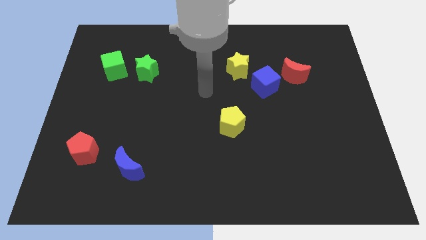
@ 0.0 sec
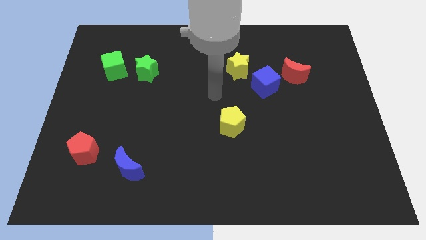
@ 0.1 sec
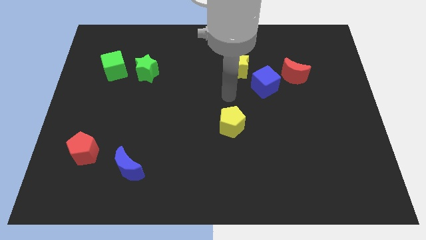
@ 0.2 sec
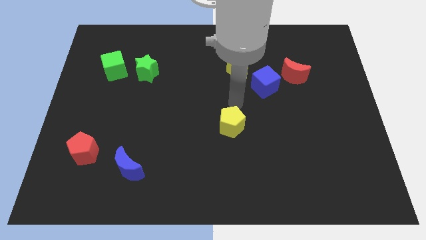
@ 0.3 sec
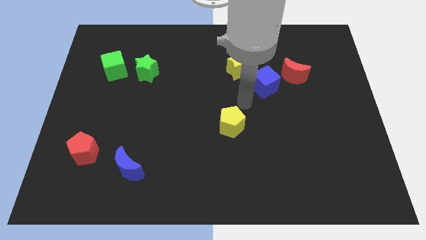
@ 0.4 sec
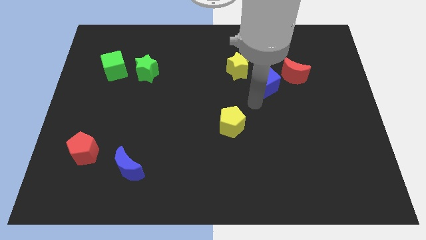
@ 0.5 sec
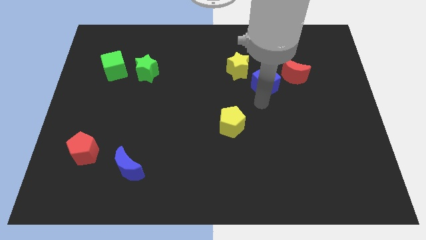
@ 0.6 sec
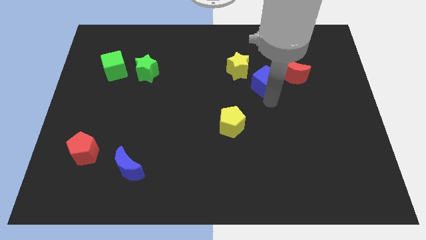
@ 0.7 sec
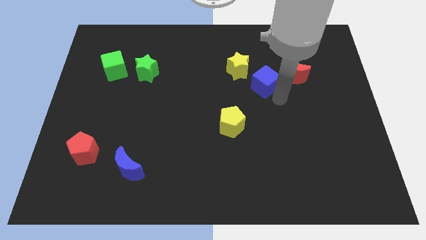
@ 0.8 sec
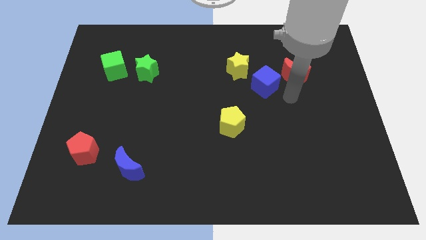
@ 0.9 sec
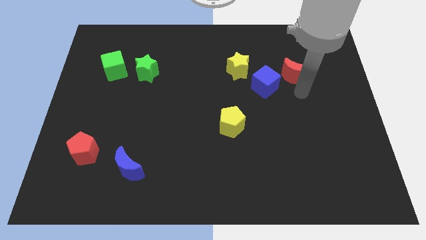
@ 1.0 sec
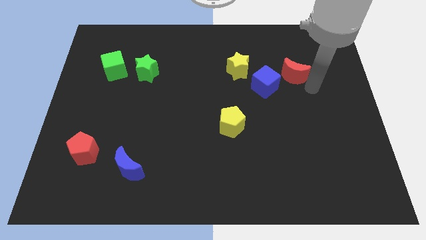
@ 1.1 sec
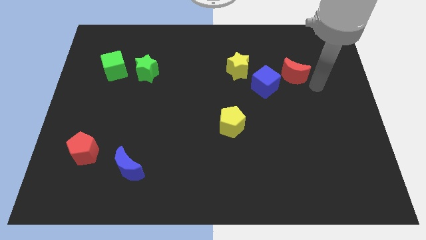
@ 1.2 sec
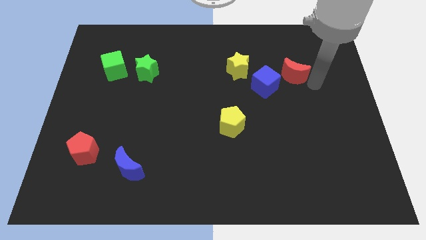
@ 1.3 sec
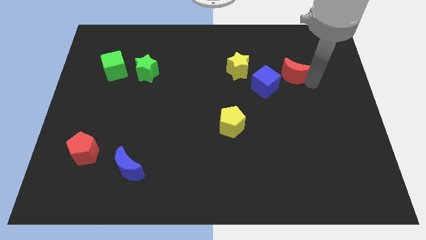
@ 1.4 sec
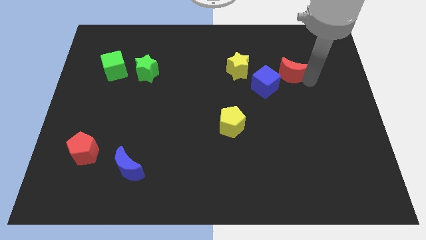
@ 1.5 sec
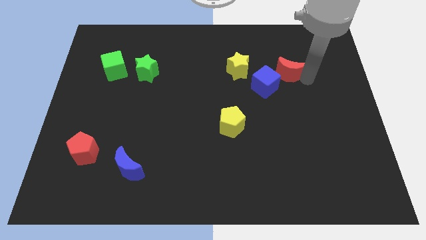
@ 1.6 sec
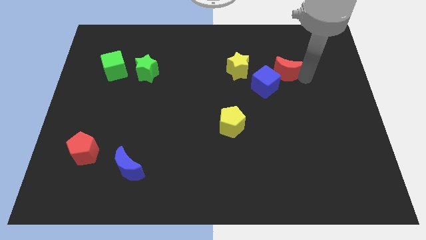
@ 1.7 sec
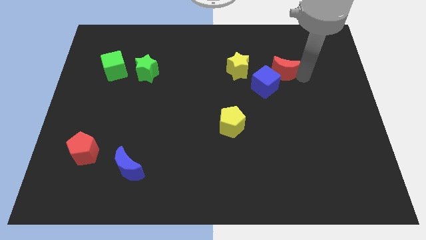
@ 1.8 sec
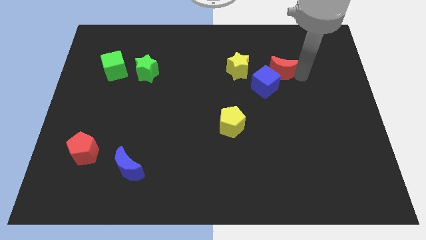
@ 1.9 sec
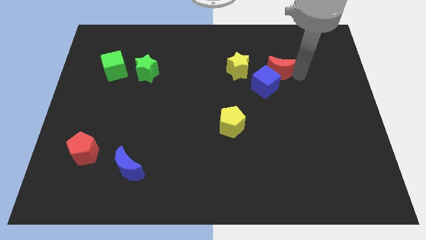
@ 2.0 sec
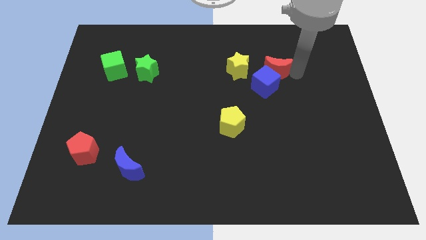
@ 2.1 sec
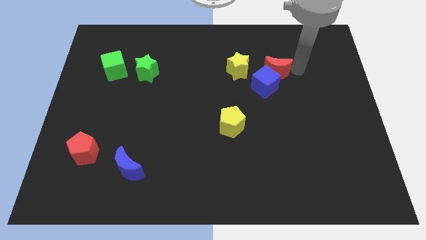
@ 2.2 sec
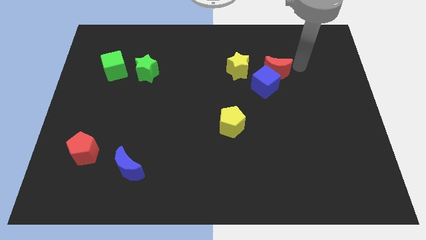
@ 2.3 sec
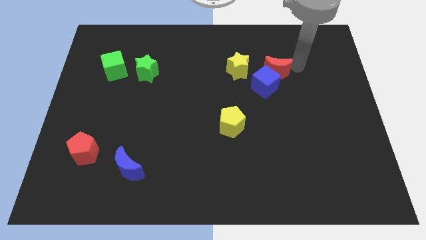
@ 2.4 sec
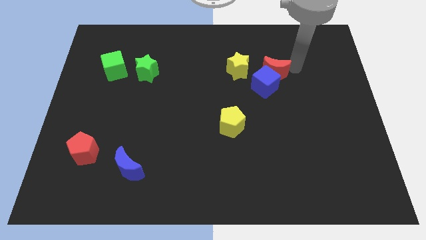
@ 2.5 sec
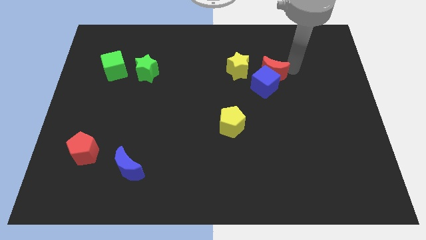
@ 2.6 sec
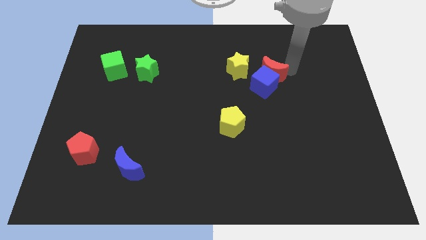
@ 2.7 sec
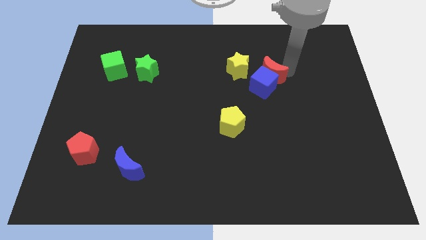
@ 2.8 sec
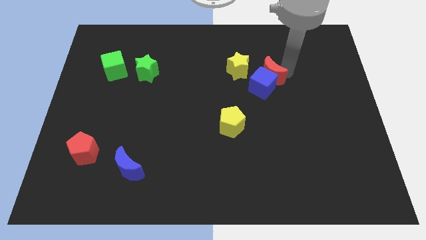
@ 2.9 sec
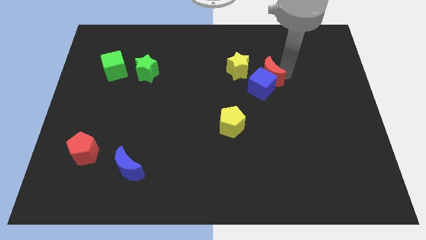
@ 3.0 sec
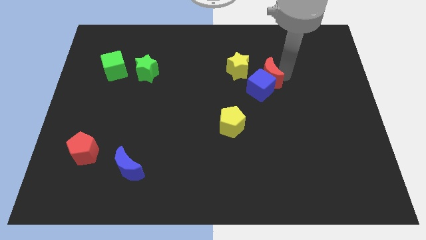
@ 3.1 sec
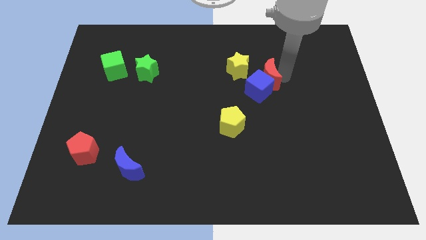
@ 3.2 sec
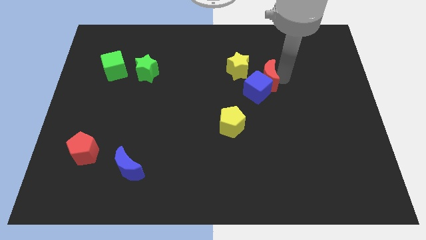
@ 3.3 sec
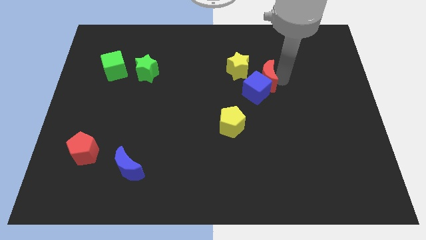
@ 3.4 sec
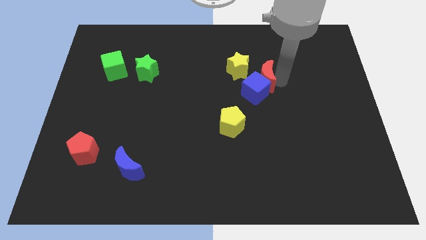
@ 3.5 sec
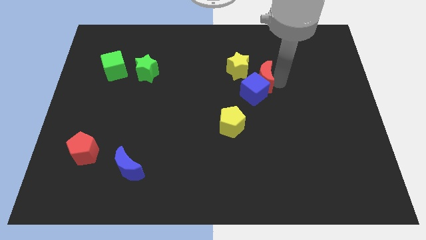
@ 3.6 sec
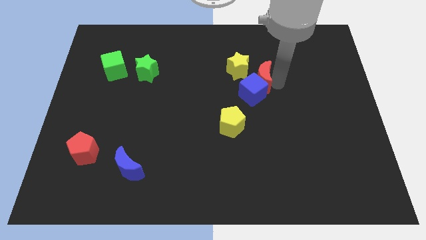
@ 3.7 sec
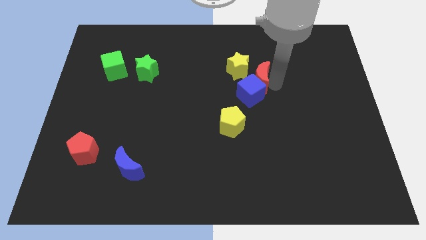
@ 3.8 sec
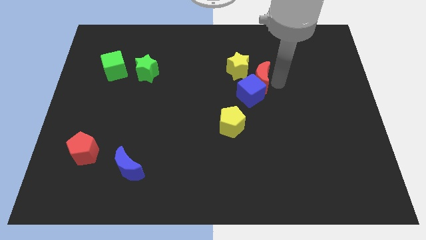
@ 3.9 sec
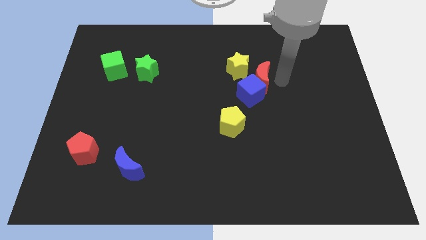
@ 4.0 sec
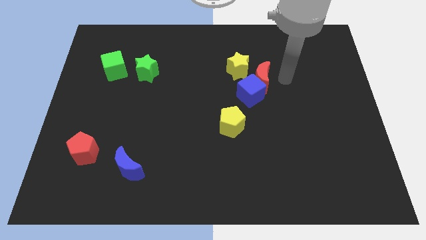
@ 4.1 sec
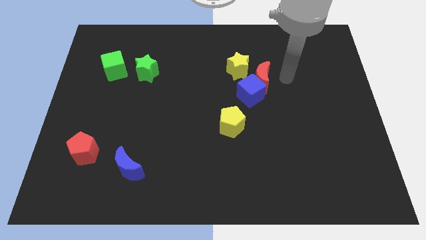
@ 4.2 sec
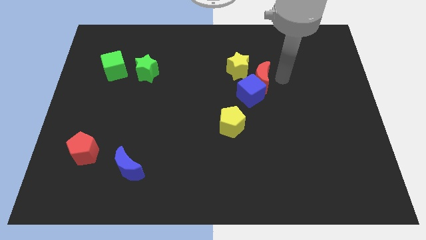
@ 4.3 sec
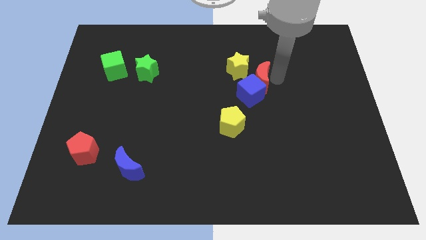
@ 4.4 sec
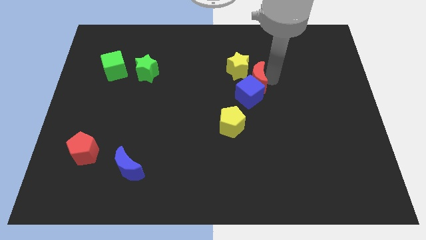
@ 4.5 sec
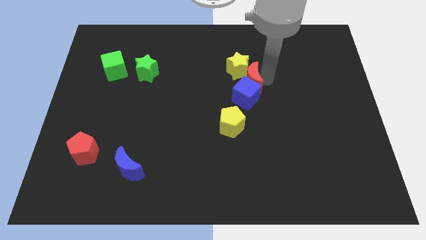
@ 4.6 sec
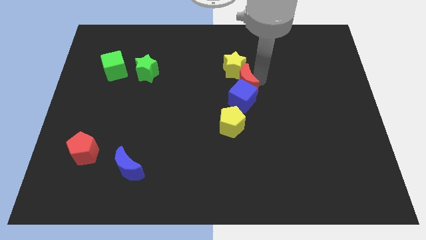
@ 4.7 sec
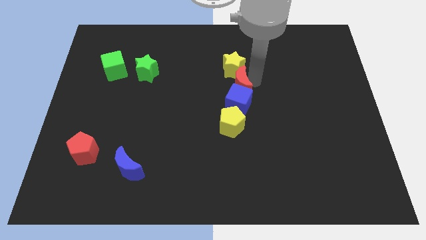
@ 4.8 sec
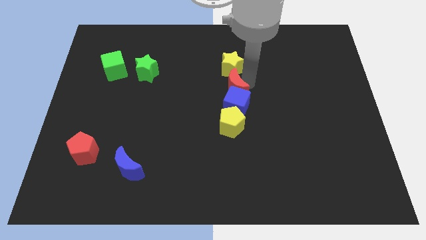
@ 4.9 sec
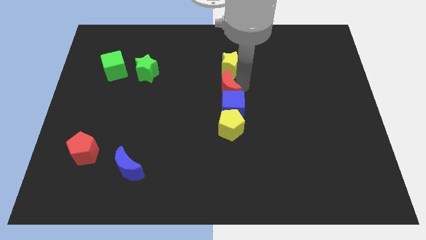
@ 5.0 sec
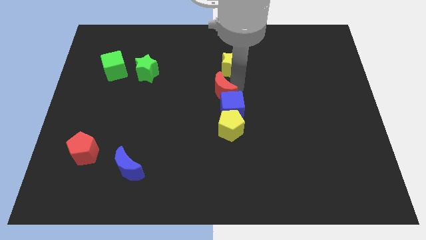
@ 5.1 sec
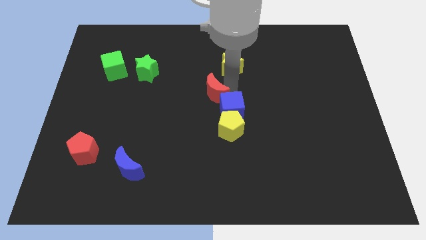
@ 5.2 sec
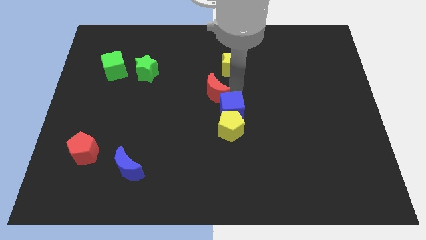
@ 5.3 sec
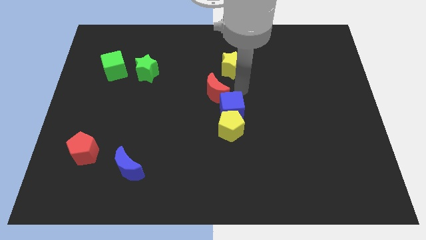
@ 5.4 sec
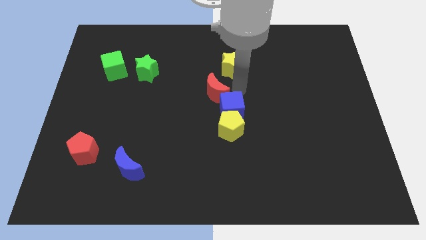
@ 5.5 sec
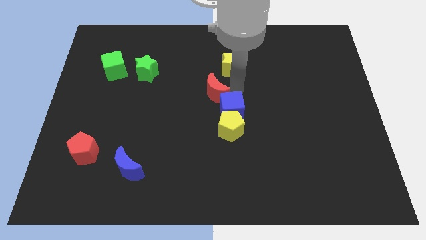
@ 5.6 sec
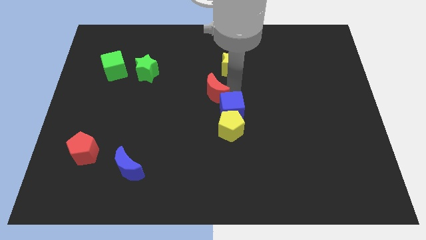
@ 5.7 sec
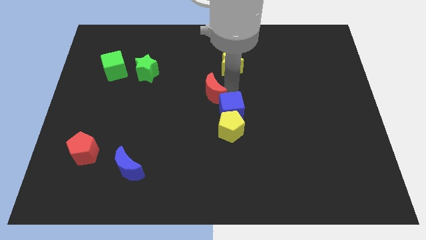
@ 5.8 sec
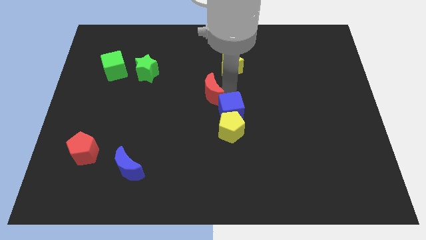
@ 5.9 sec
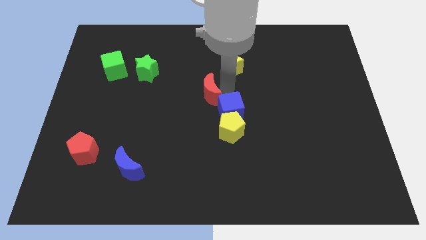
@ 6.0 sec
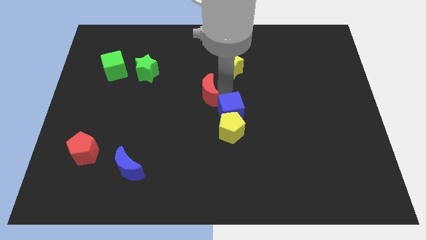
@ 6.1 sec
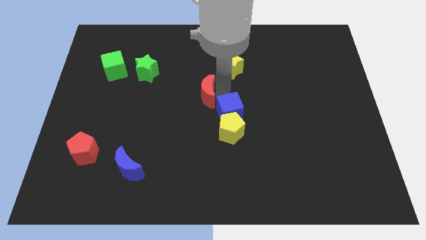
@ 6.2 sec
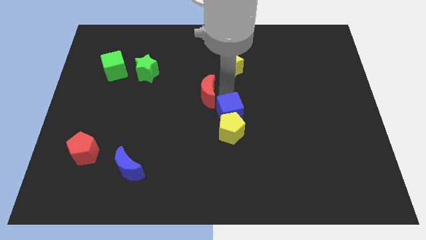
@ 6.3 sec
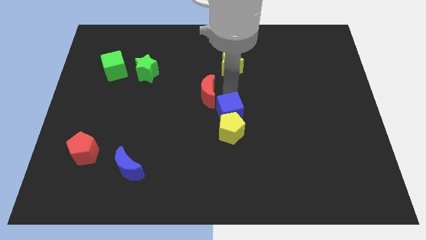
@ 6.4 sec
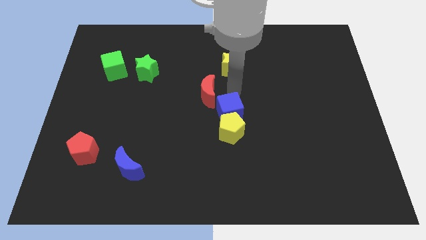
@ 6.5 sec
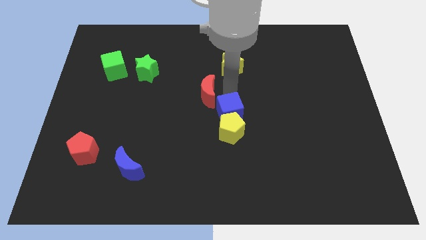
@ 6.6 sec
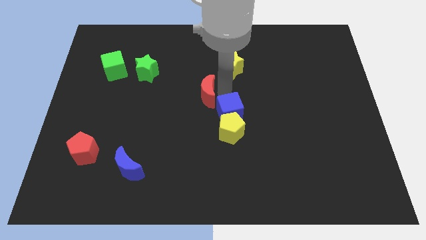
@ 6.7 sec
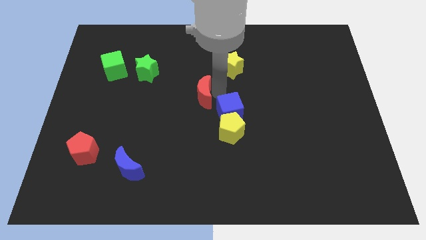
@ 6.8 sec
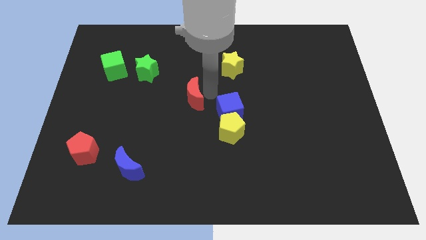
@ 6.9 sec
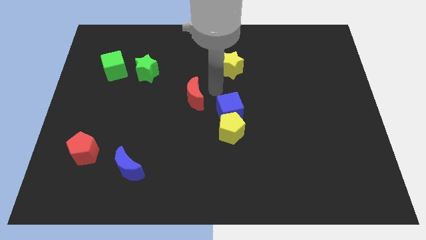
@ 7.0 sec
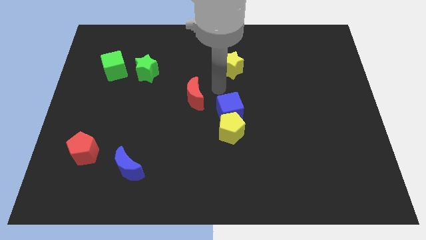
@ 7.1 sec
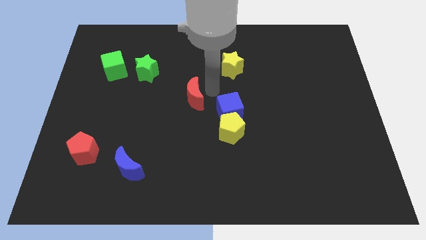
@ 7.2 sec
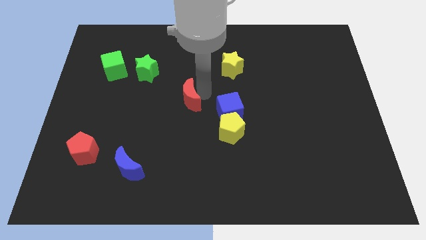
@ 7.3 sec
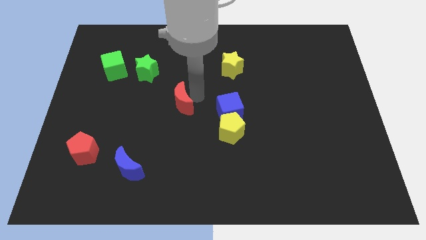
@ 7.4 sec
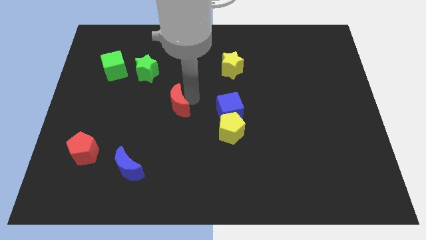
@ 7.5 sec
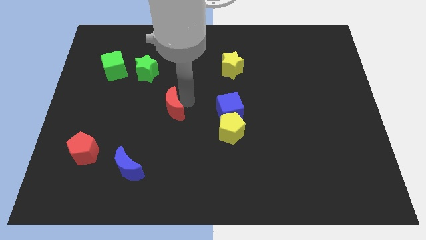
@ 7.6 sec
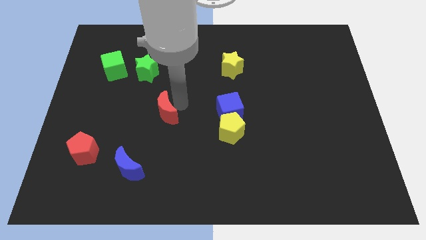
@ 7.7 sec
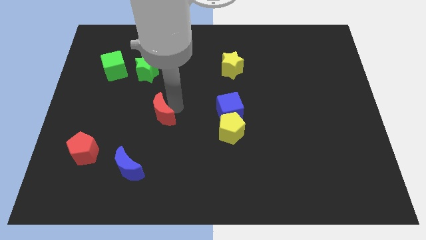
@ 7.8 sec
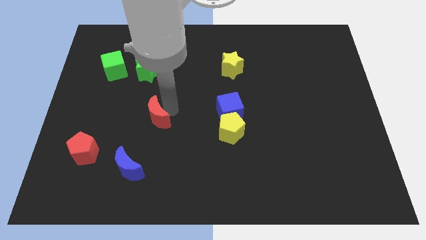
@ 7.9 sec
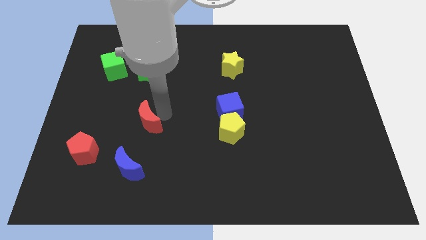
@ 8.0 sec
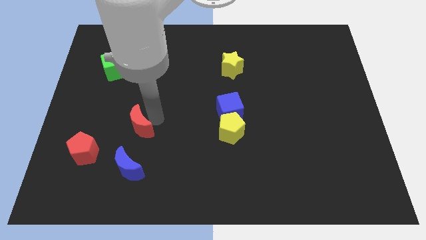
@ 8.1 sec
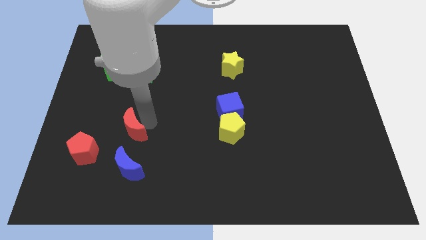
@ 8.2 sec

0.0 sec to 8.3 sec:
slide the red moon to the top right side of the red pentagon
